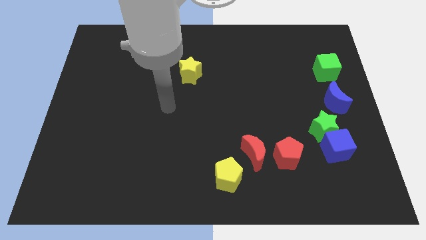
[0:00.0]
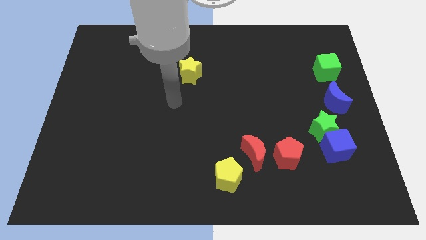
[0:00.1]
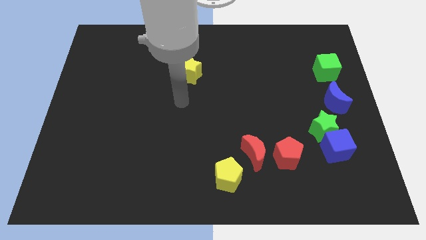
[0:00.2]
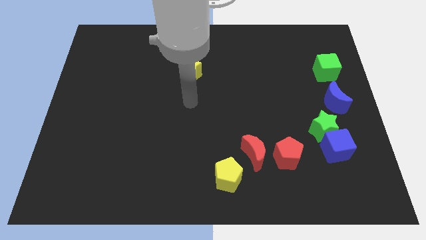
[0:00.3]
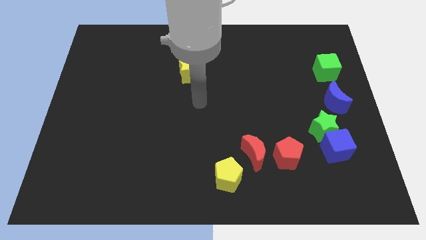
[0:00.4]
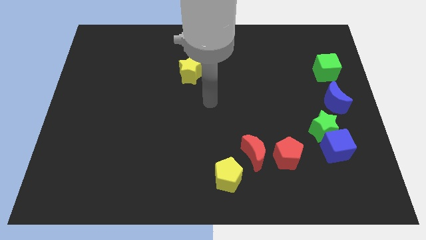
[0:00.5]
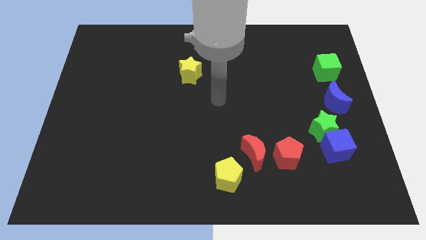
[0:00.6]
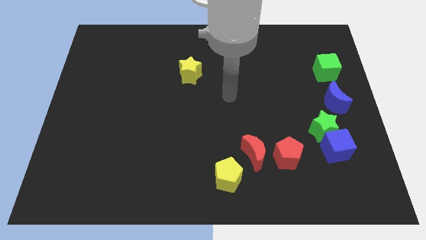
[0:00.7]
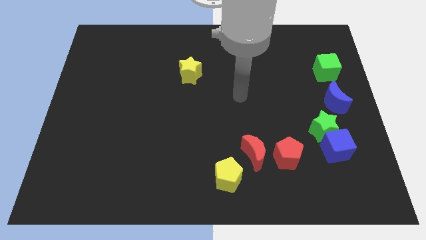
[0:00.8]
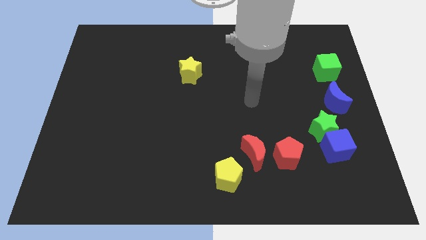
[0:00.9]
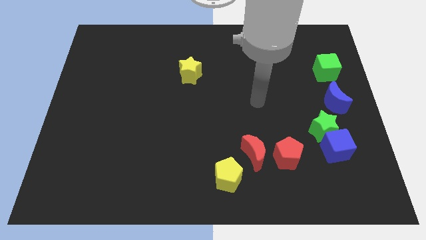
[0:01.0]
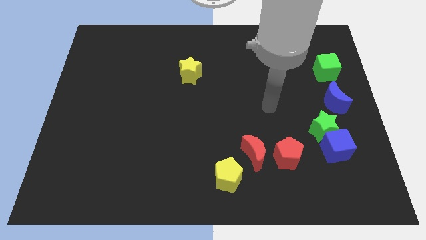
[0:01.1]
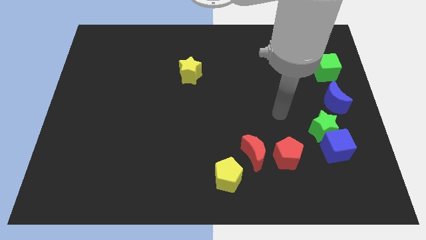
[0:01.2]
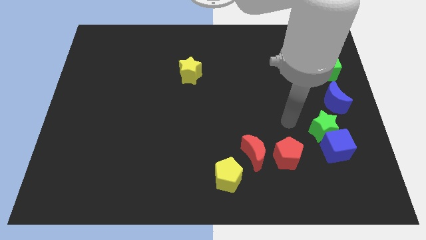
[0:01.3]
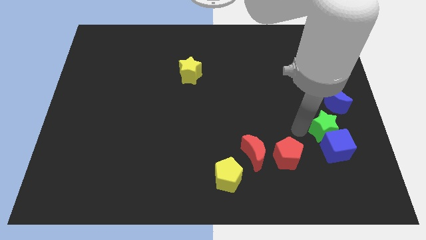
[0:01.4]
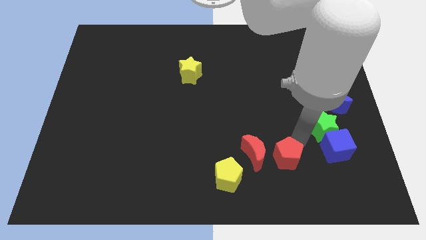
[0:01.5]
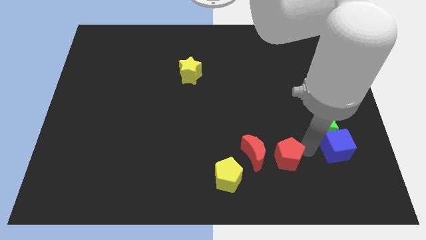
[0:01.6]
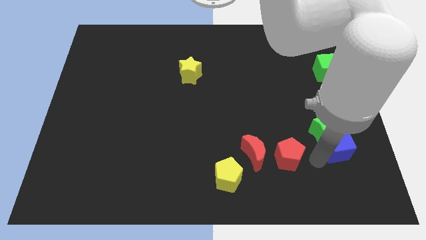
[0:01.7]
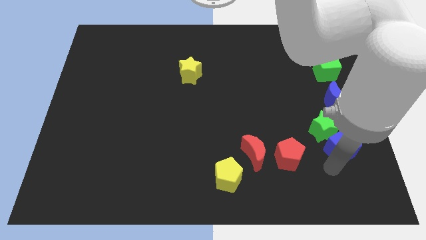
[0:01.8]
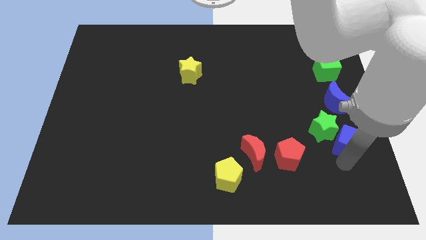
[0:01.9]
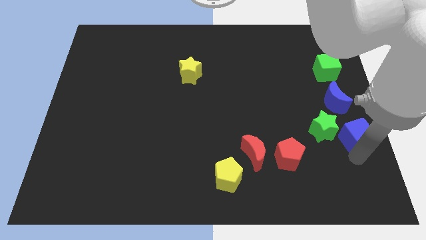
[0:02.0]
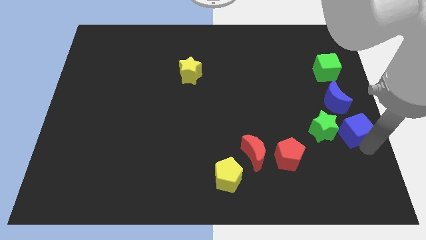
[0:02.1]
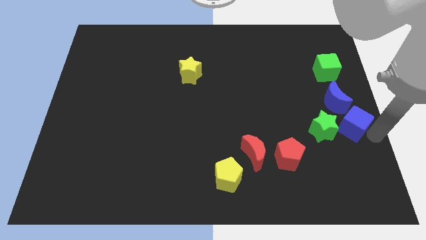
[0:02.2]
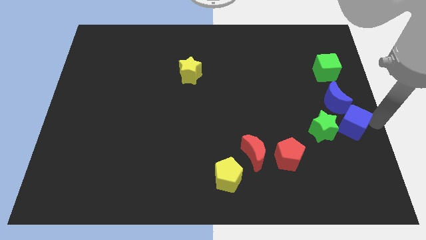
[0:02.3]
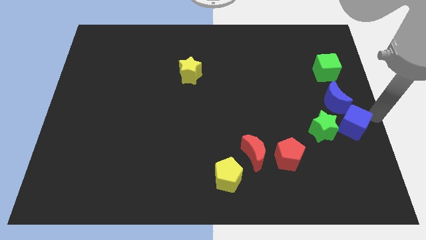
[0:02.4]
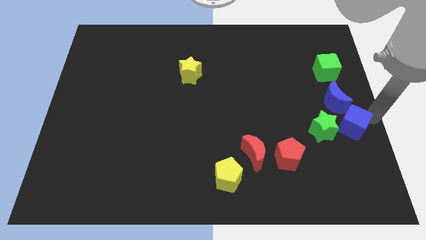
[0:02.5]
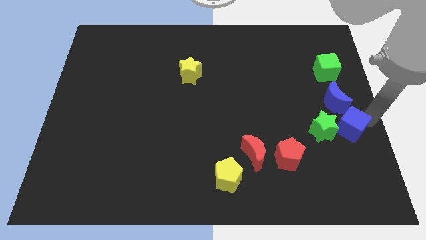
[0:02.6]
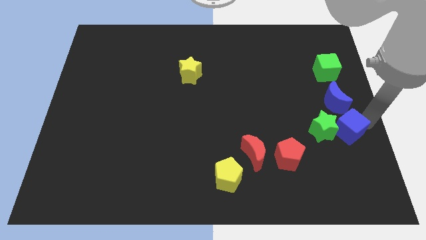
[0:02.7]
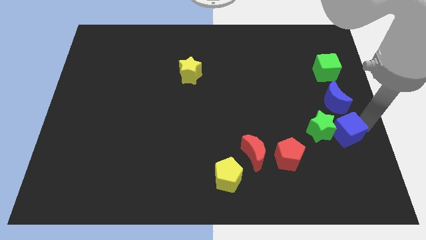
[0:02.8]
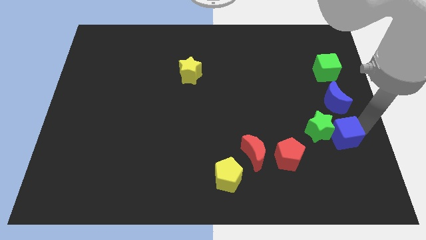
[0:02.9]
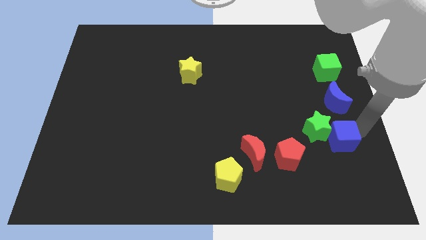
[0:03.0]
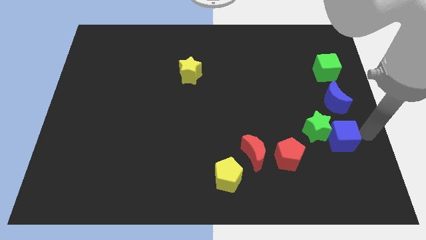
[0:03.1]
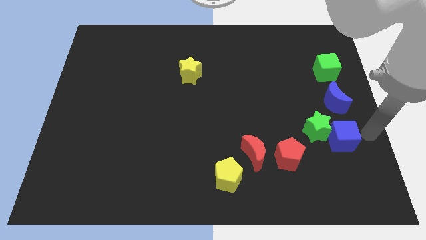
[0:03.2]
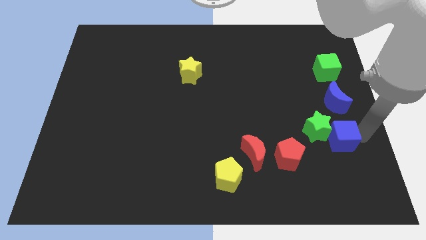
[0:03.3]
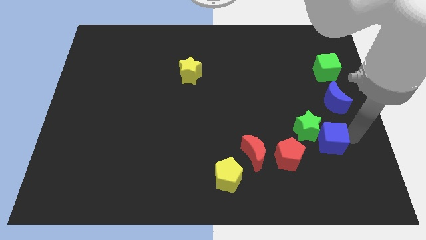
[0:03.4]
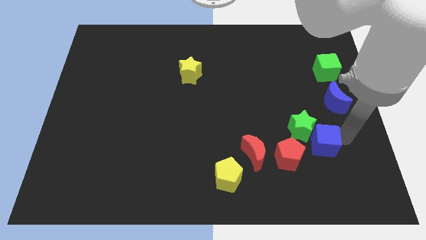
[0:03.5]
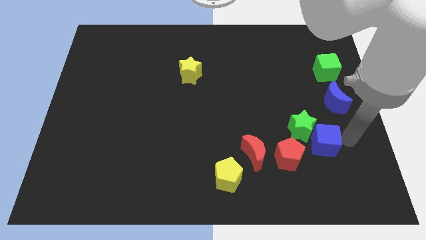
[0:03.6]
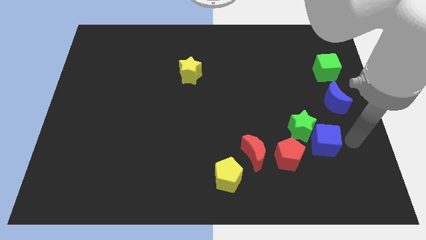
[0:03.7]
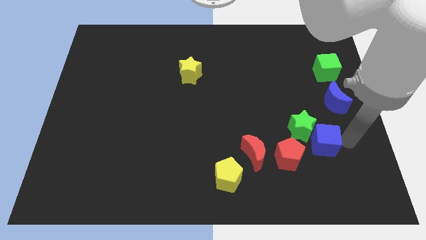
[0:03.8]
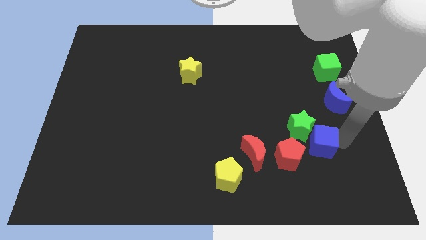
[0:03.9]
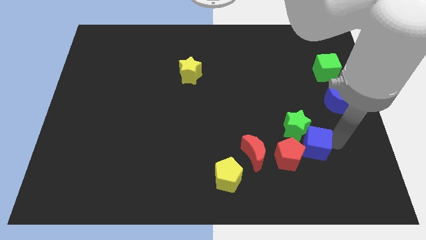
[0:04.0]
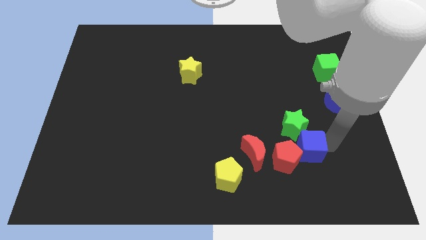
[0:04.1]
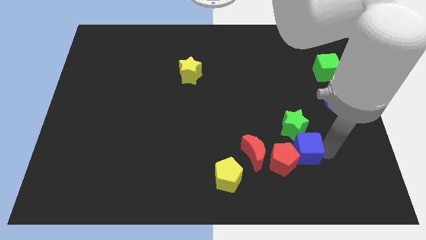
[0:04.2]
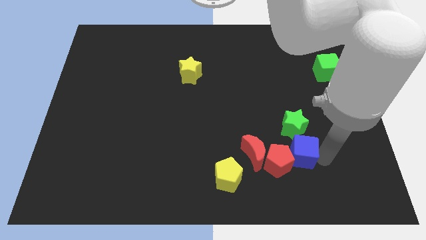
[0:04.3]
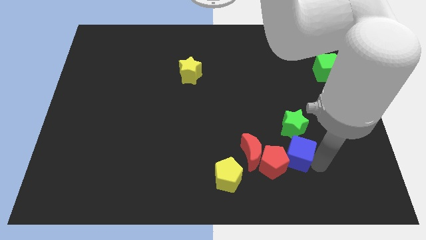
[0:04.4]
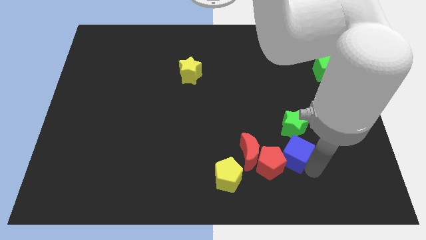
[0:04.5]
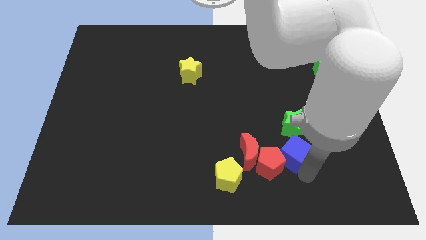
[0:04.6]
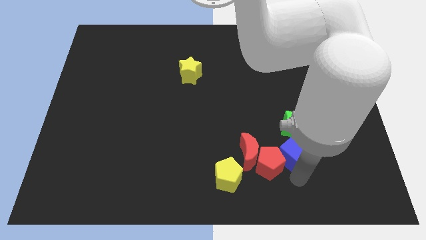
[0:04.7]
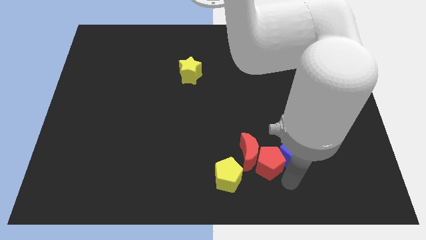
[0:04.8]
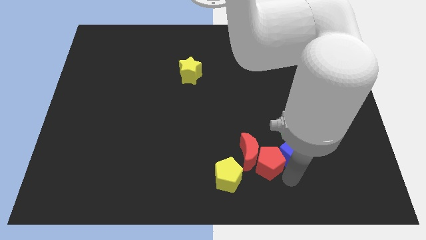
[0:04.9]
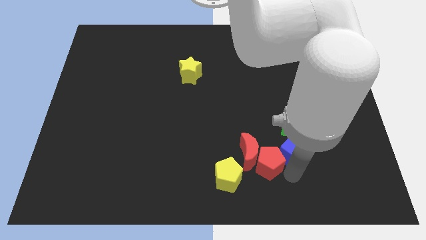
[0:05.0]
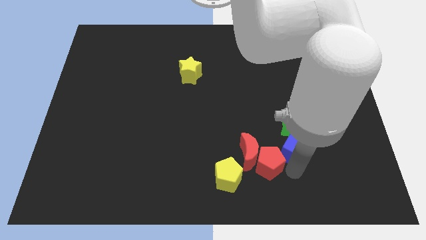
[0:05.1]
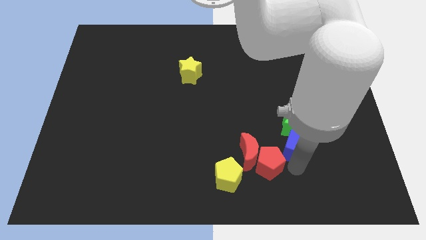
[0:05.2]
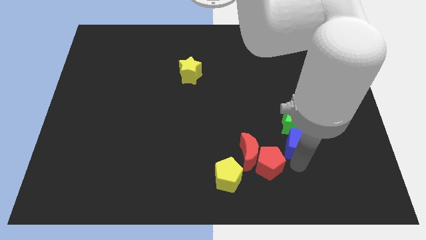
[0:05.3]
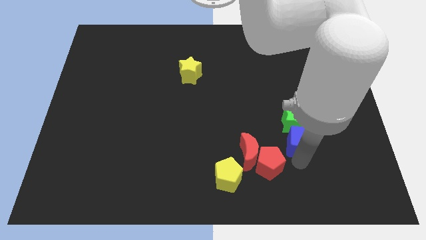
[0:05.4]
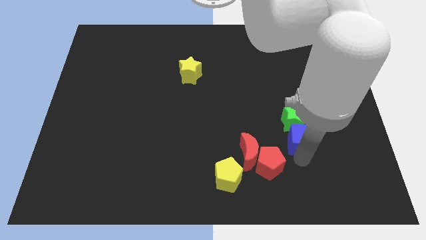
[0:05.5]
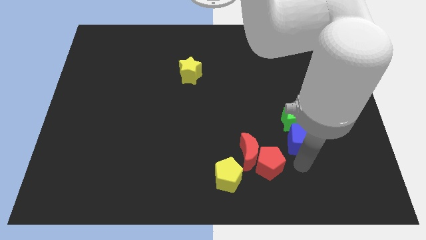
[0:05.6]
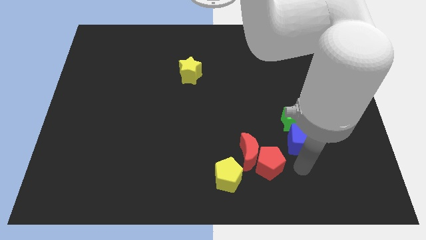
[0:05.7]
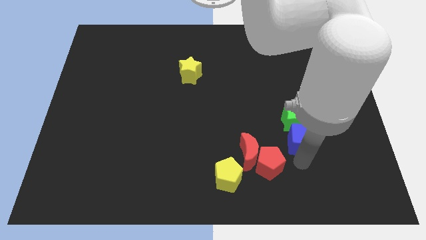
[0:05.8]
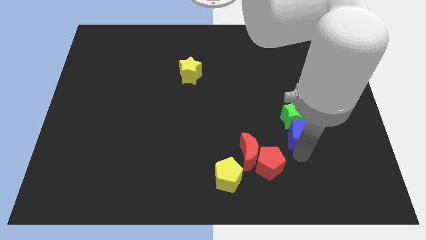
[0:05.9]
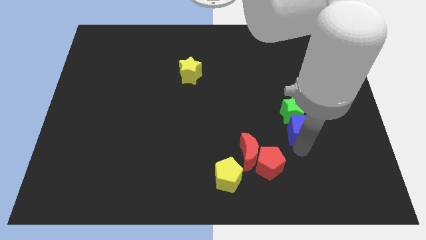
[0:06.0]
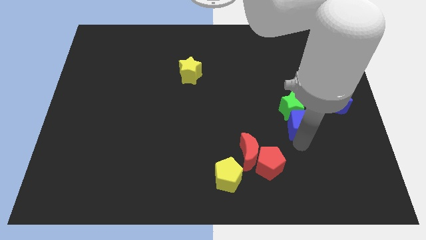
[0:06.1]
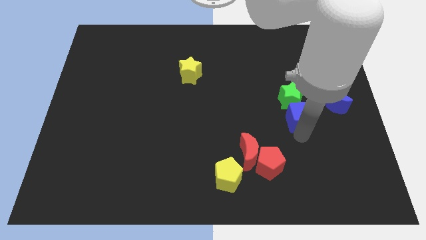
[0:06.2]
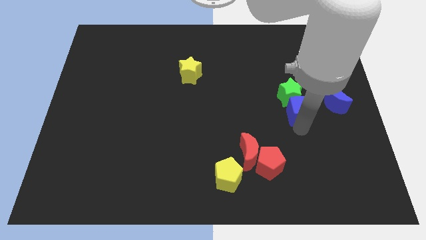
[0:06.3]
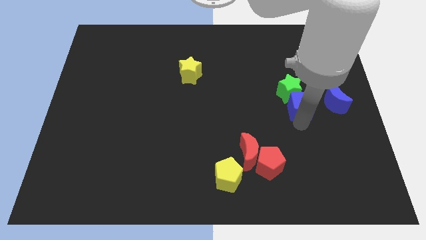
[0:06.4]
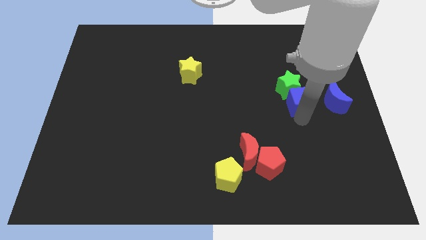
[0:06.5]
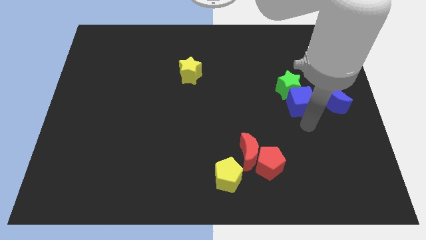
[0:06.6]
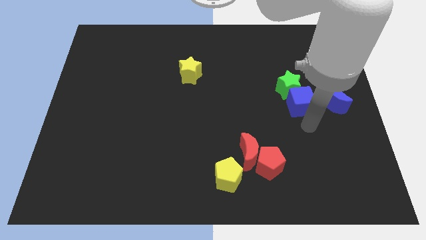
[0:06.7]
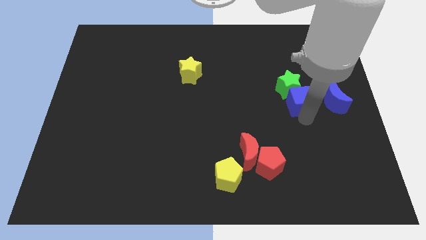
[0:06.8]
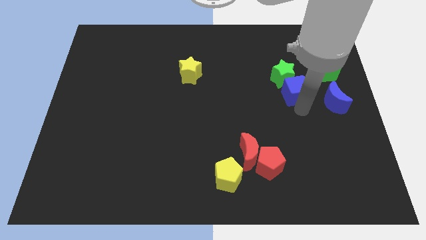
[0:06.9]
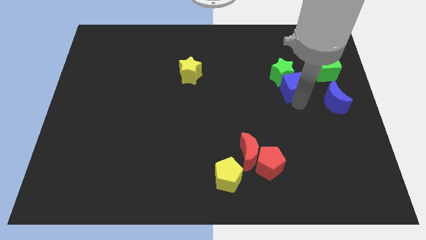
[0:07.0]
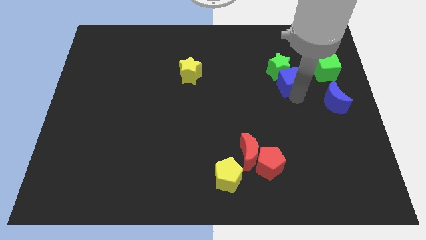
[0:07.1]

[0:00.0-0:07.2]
slide the blue cube just left of the green cube
